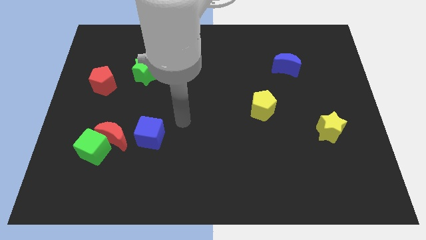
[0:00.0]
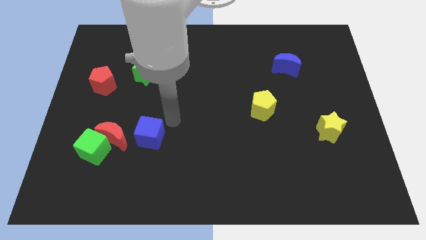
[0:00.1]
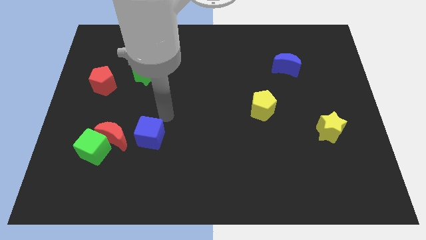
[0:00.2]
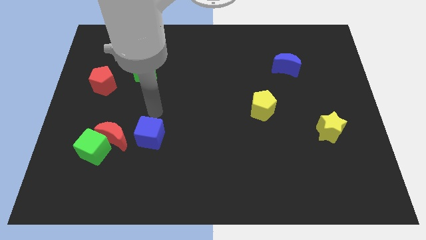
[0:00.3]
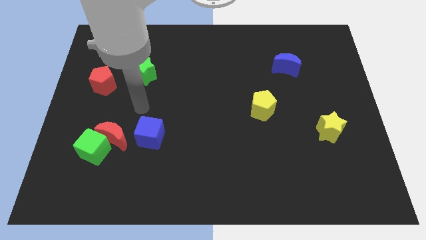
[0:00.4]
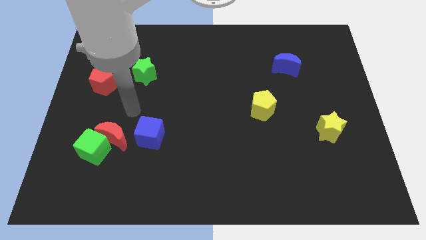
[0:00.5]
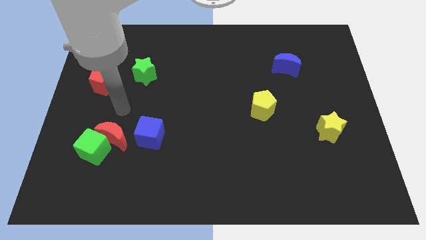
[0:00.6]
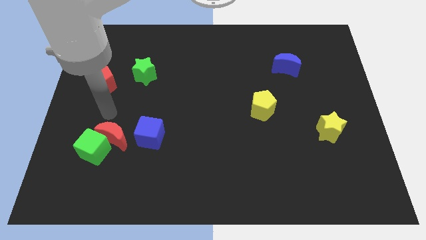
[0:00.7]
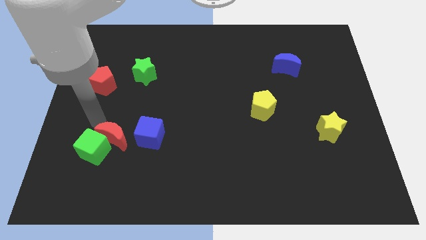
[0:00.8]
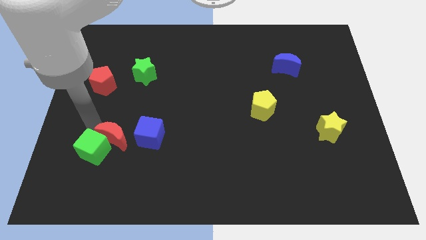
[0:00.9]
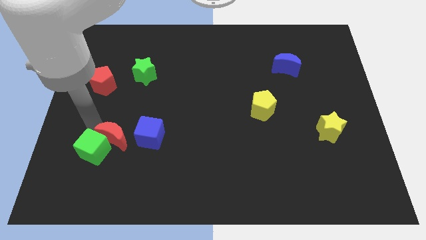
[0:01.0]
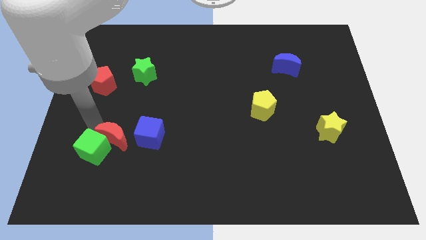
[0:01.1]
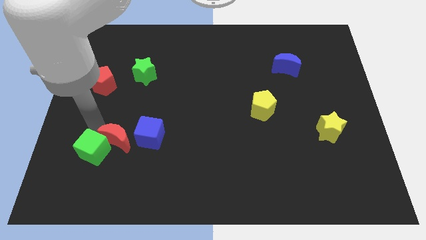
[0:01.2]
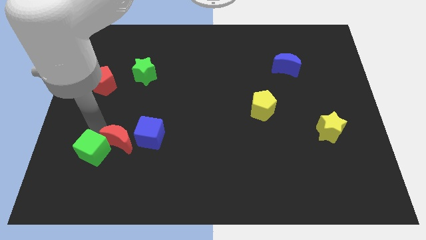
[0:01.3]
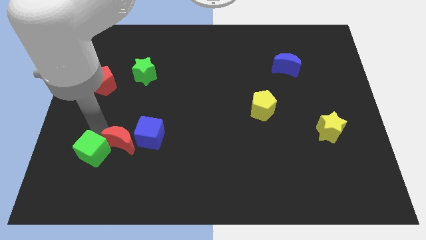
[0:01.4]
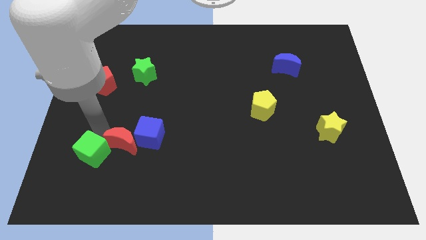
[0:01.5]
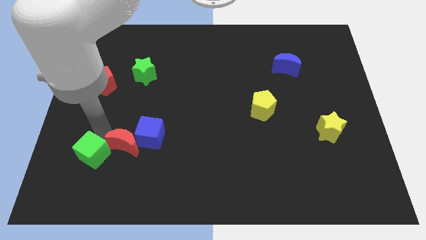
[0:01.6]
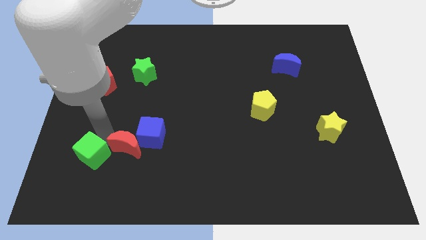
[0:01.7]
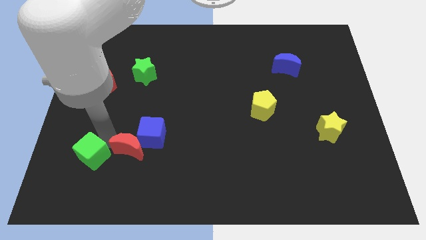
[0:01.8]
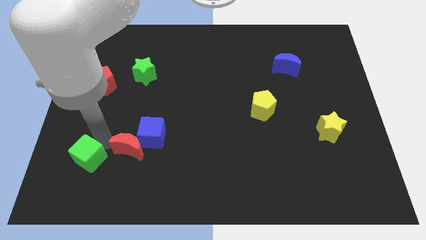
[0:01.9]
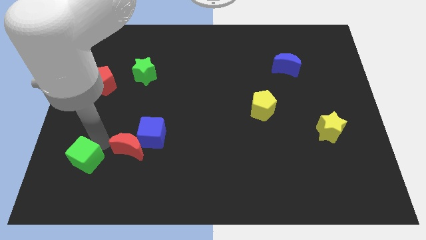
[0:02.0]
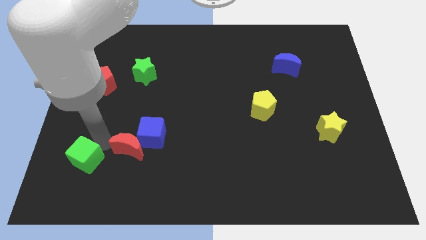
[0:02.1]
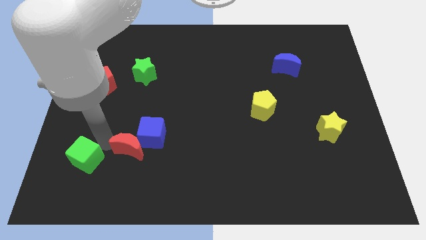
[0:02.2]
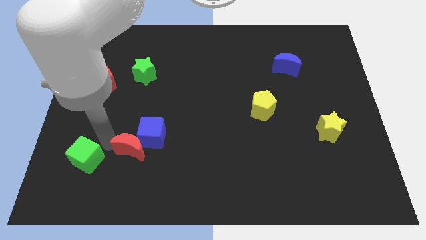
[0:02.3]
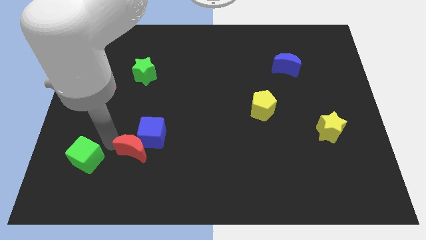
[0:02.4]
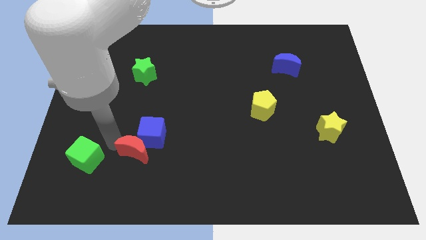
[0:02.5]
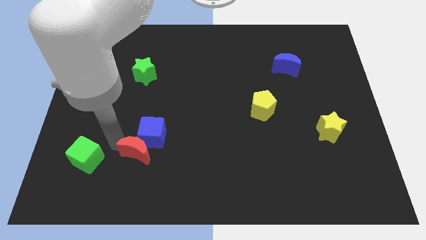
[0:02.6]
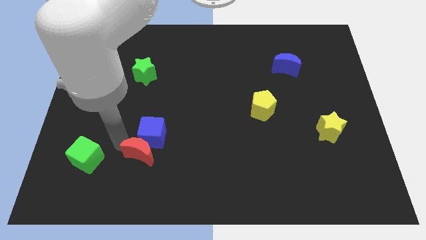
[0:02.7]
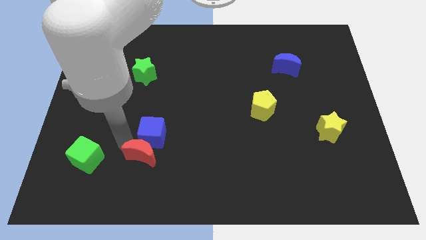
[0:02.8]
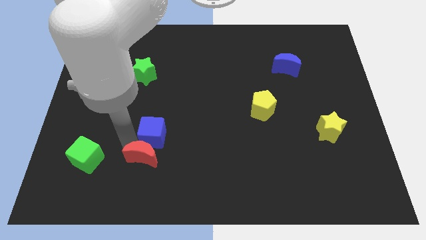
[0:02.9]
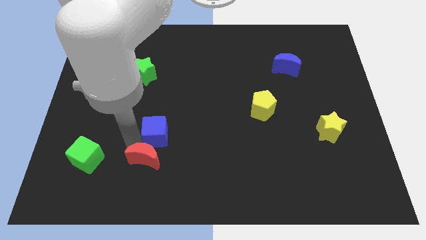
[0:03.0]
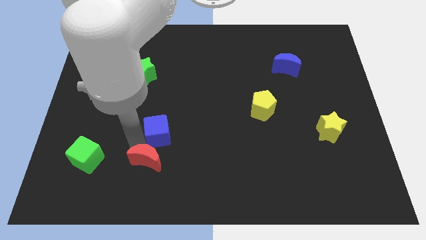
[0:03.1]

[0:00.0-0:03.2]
push the red moon a little right

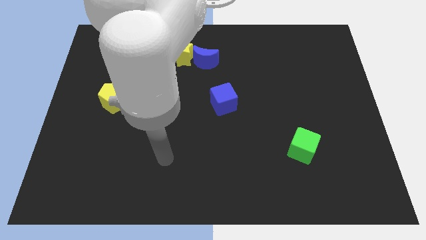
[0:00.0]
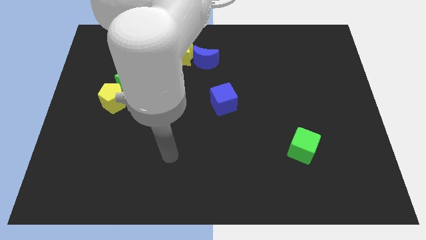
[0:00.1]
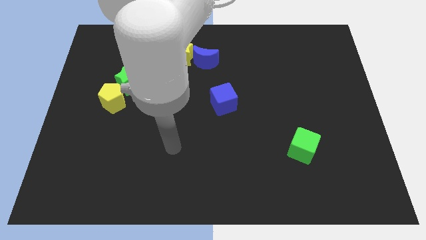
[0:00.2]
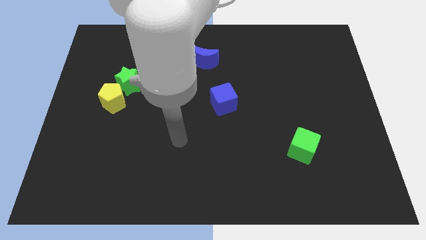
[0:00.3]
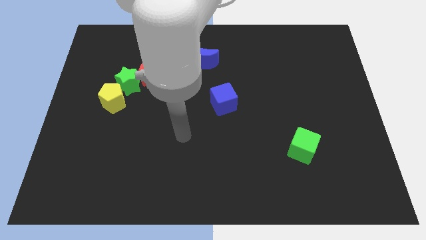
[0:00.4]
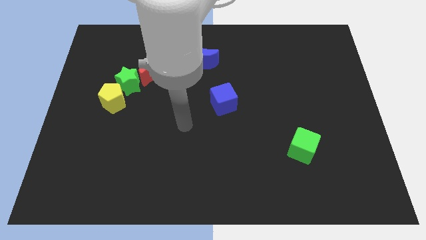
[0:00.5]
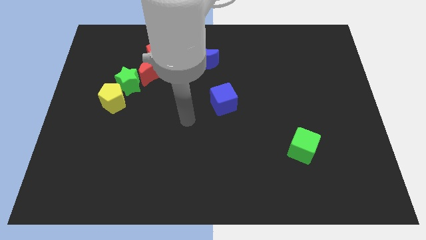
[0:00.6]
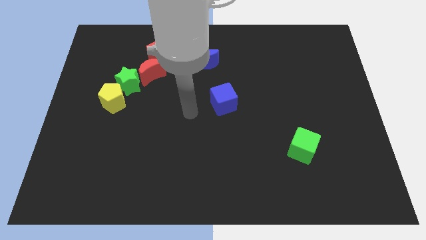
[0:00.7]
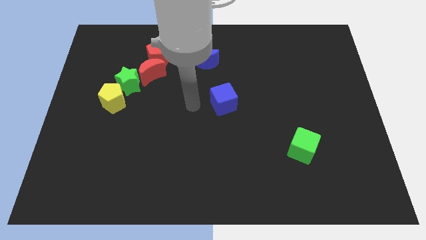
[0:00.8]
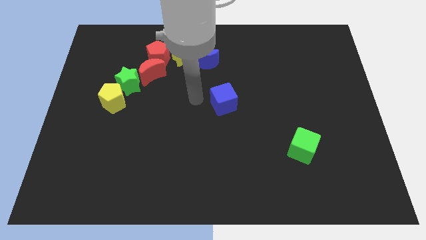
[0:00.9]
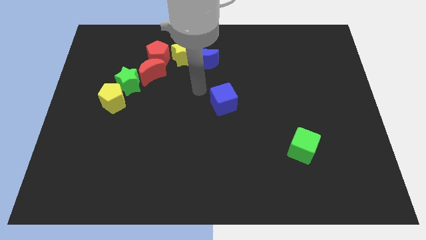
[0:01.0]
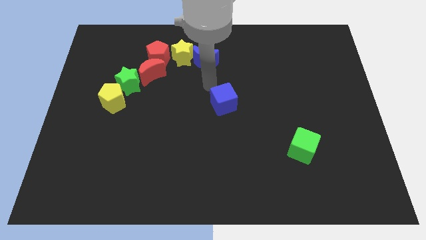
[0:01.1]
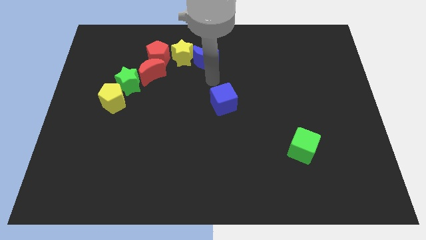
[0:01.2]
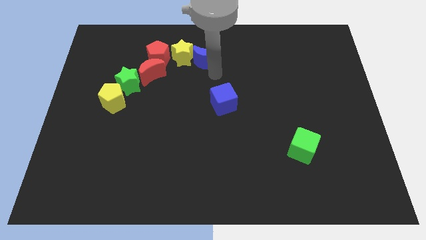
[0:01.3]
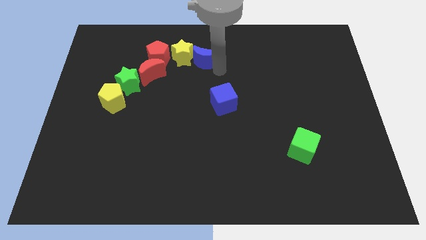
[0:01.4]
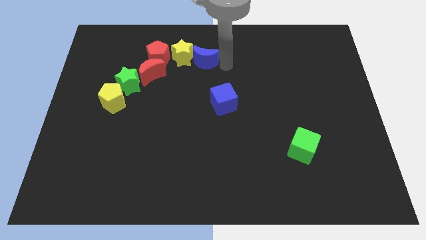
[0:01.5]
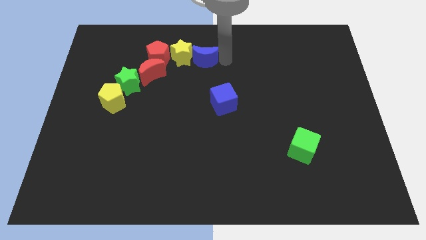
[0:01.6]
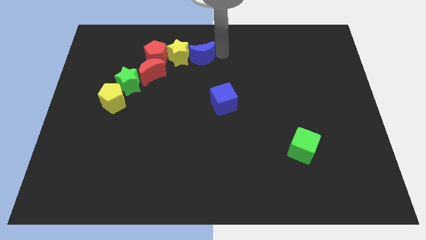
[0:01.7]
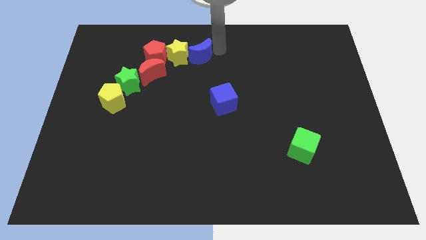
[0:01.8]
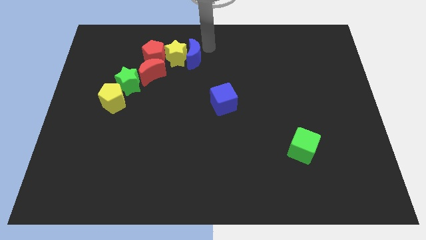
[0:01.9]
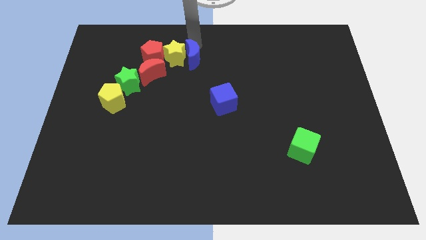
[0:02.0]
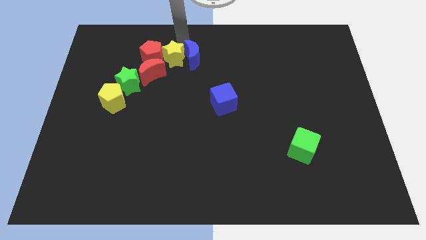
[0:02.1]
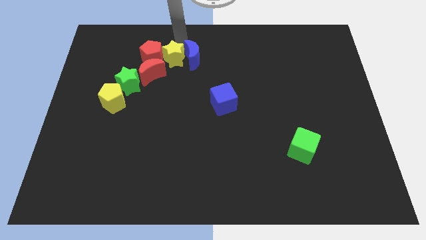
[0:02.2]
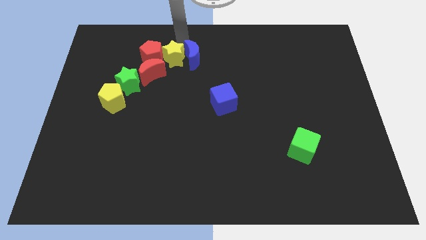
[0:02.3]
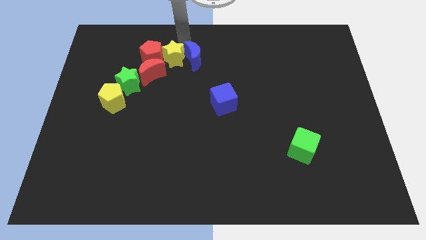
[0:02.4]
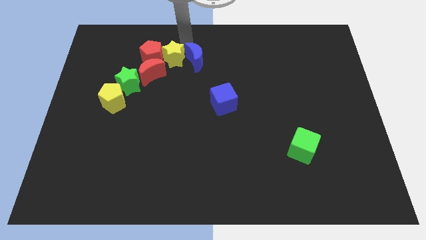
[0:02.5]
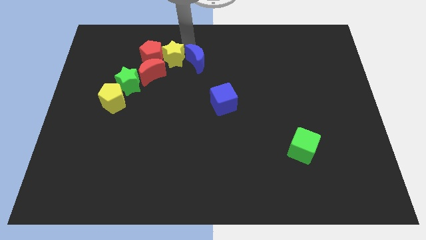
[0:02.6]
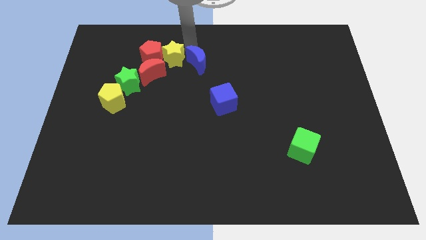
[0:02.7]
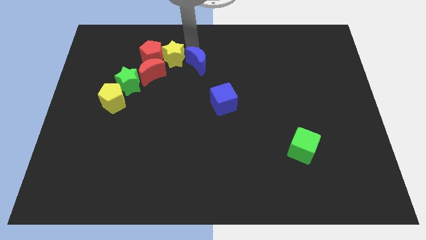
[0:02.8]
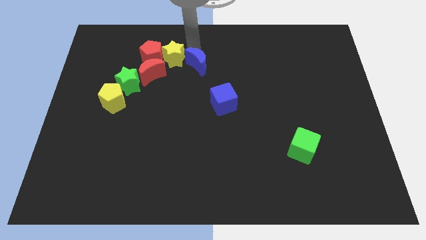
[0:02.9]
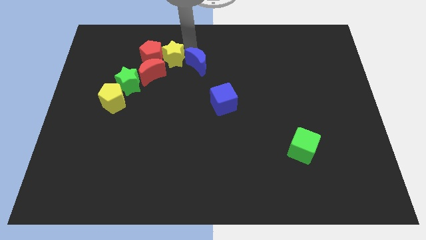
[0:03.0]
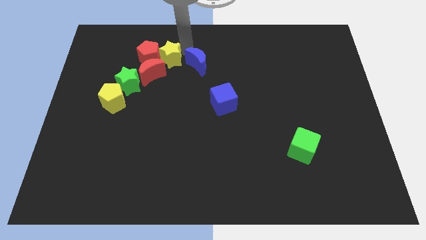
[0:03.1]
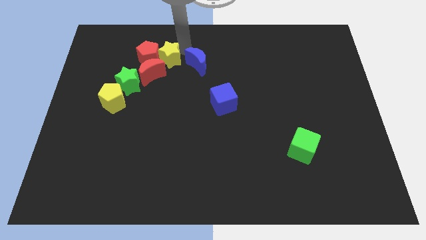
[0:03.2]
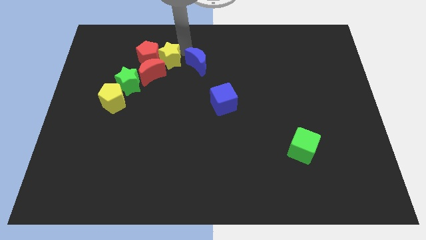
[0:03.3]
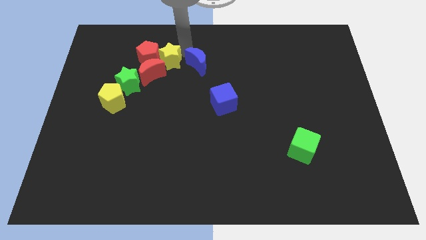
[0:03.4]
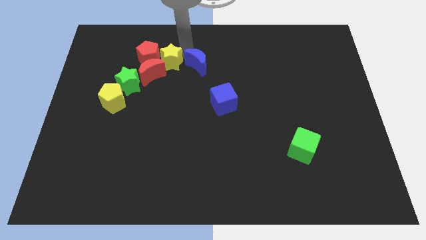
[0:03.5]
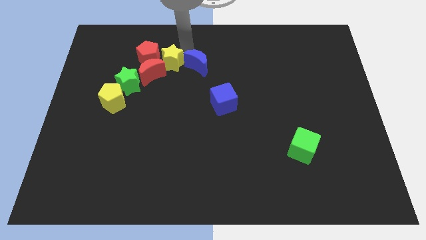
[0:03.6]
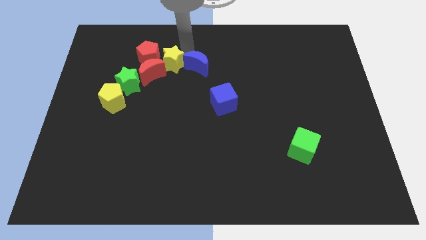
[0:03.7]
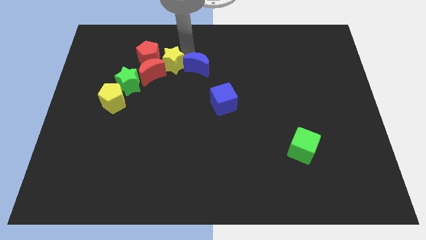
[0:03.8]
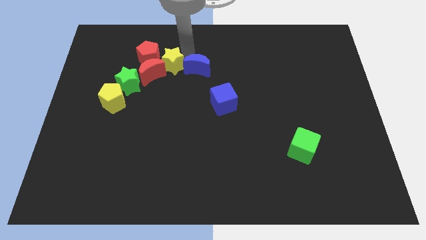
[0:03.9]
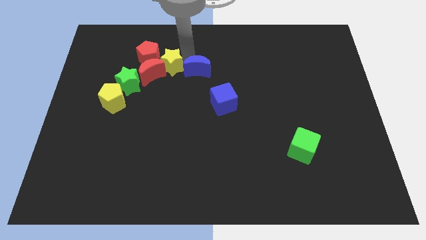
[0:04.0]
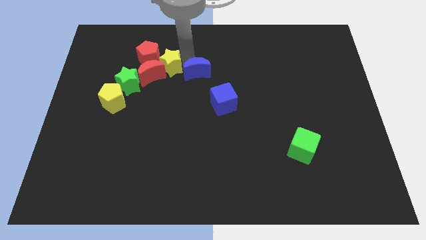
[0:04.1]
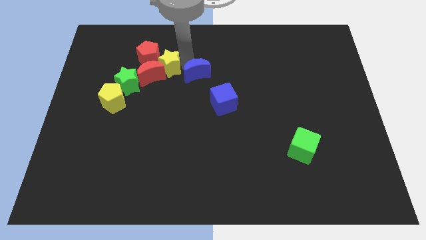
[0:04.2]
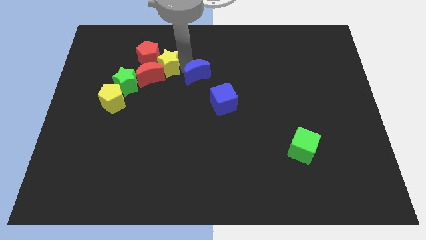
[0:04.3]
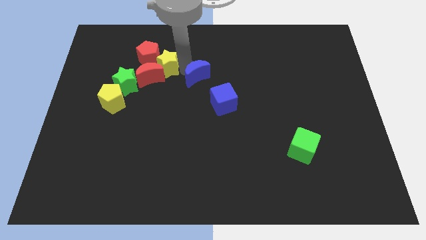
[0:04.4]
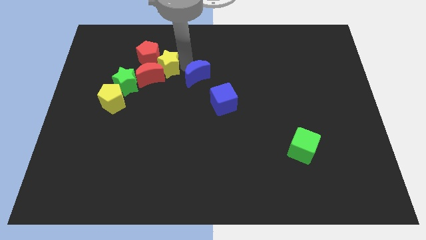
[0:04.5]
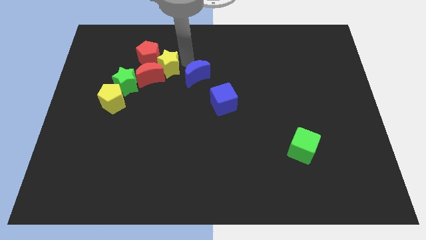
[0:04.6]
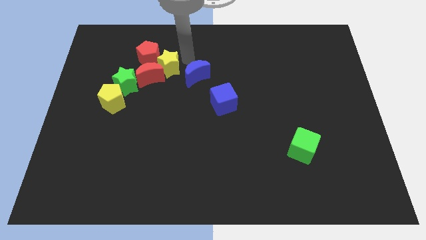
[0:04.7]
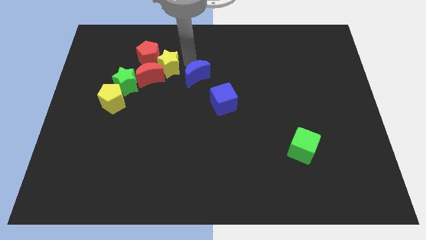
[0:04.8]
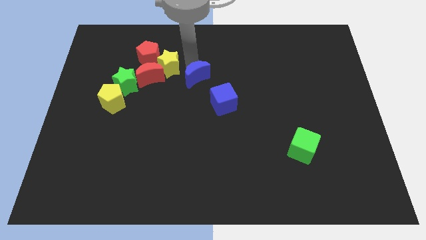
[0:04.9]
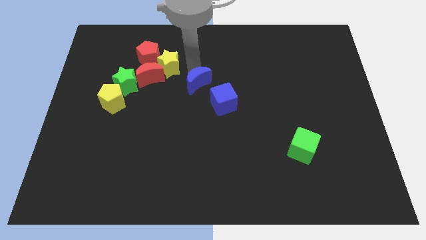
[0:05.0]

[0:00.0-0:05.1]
slightly push the blue moon downwards
